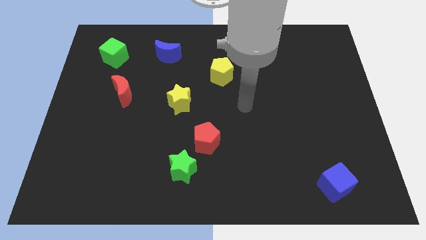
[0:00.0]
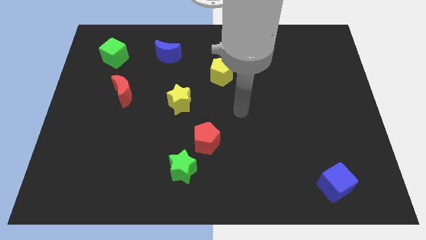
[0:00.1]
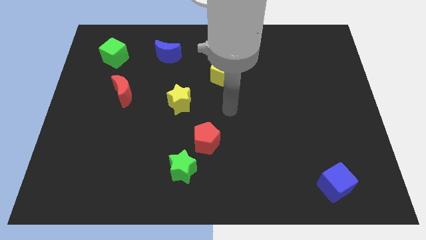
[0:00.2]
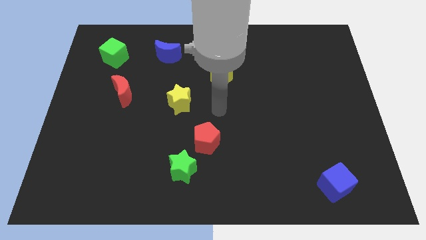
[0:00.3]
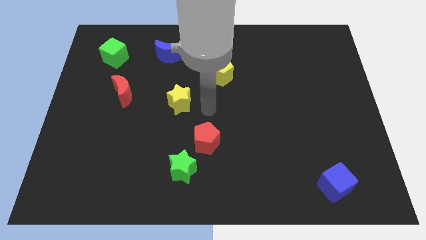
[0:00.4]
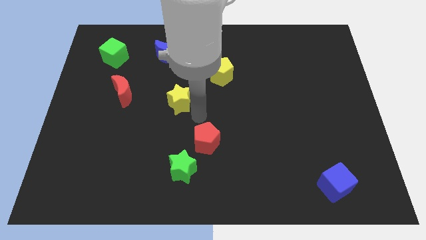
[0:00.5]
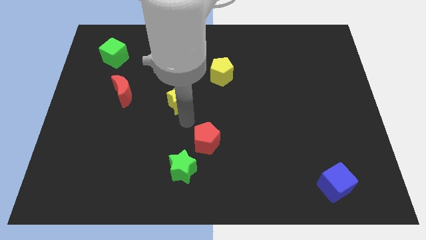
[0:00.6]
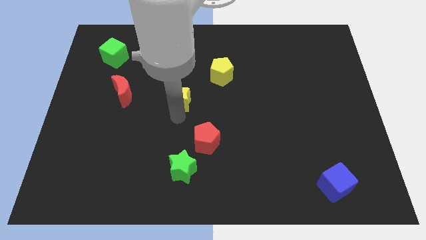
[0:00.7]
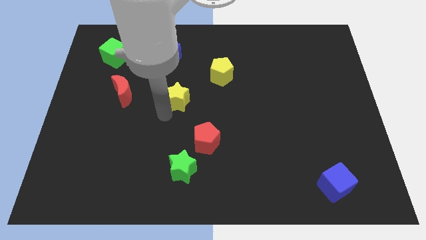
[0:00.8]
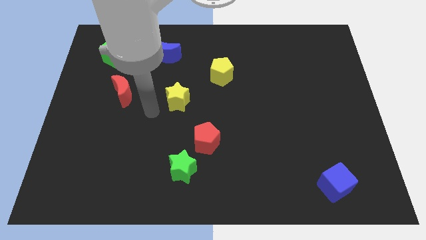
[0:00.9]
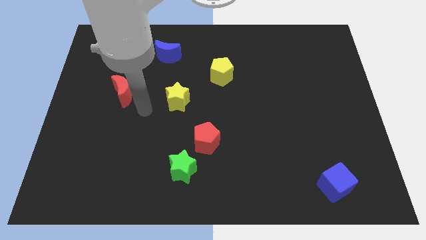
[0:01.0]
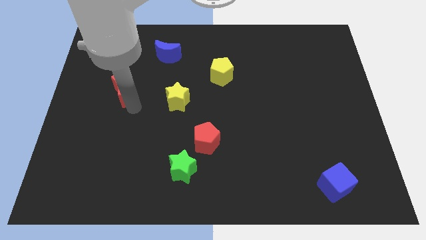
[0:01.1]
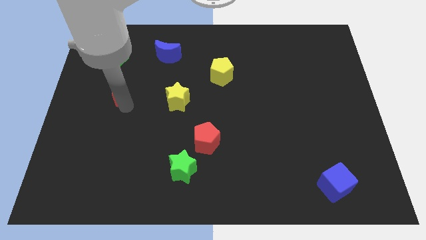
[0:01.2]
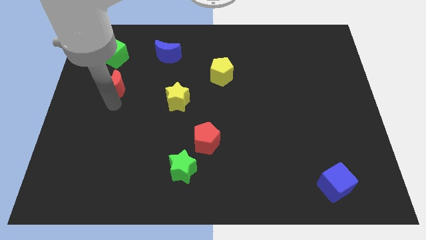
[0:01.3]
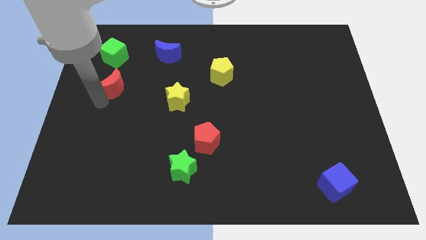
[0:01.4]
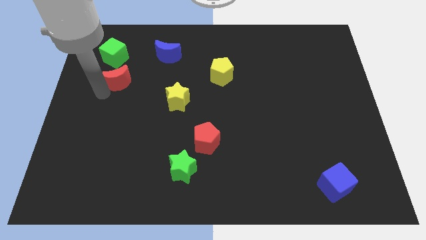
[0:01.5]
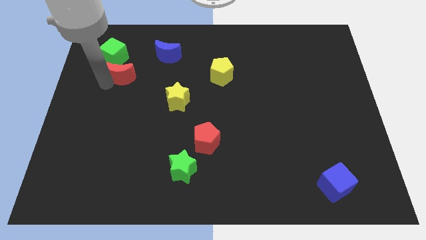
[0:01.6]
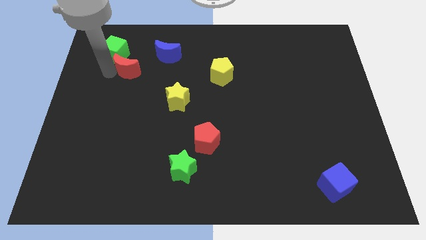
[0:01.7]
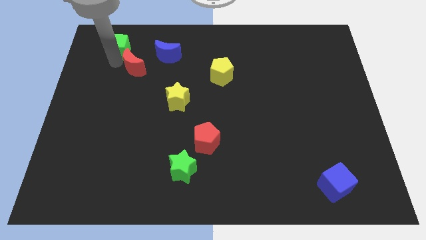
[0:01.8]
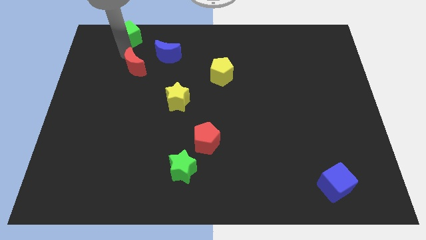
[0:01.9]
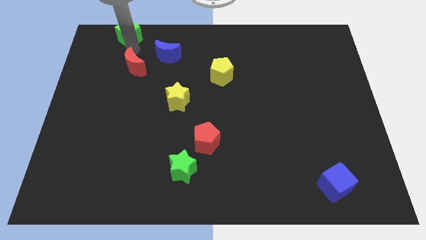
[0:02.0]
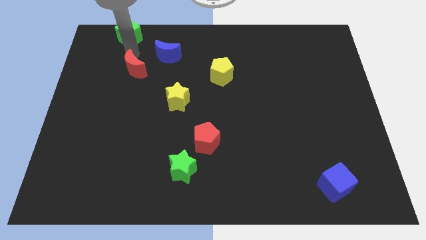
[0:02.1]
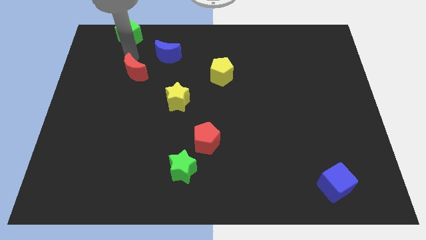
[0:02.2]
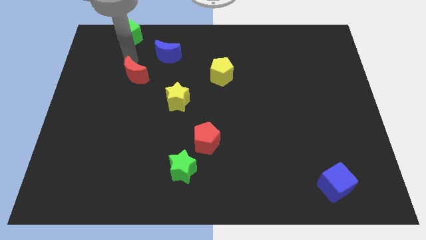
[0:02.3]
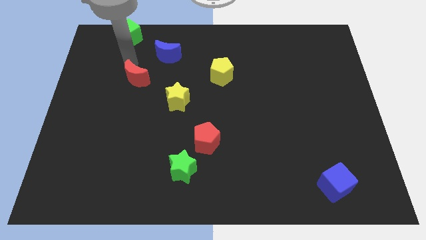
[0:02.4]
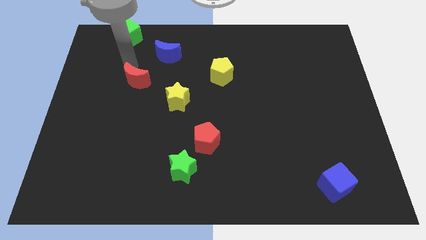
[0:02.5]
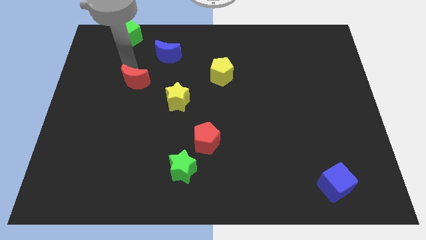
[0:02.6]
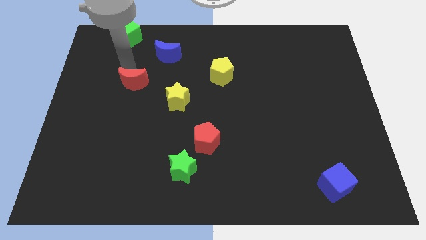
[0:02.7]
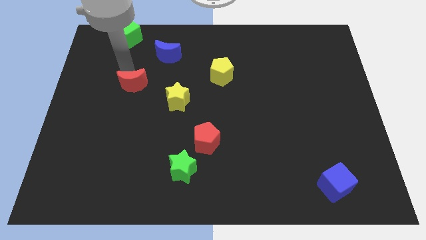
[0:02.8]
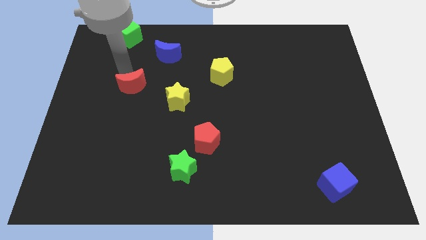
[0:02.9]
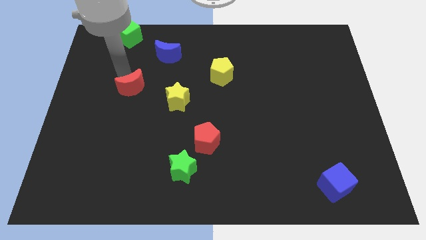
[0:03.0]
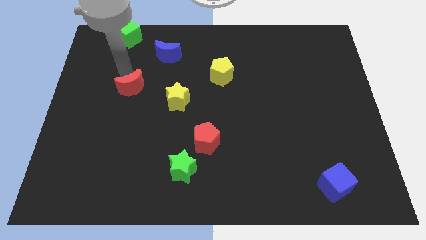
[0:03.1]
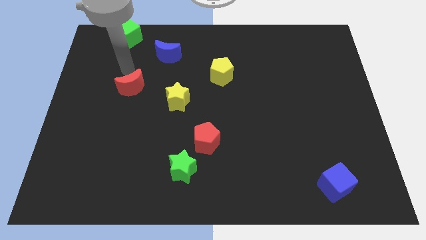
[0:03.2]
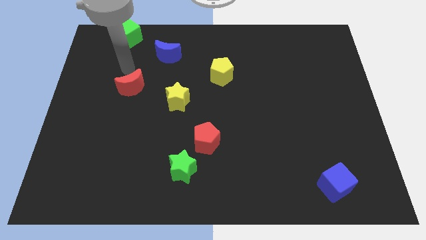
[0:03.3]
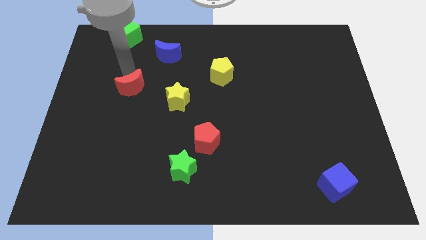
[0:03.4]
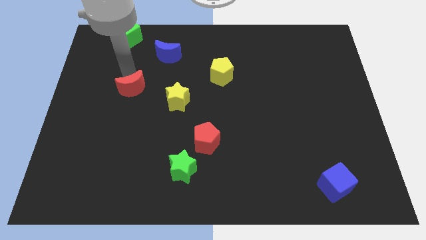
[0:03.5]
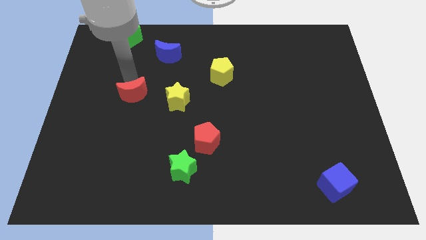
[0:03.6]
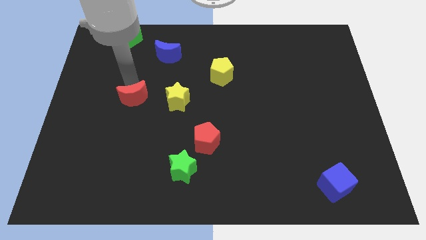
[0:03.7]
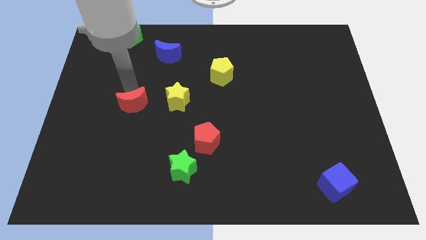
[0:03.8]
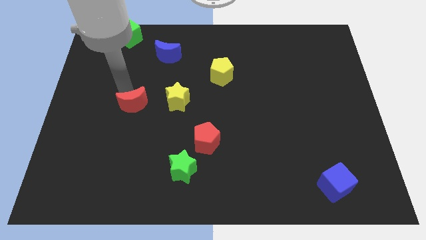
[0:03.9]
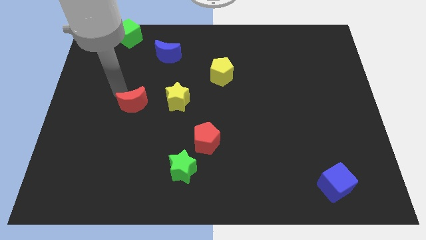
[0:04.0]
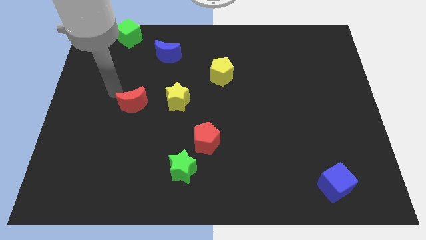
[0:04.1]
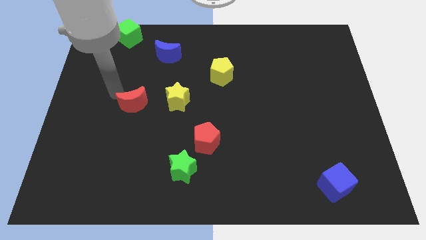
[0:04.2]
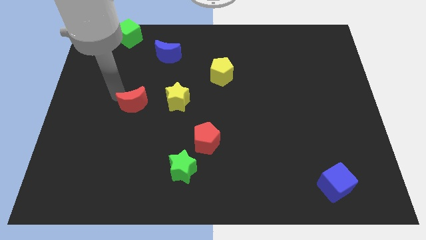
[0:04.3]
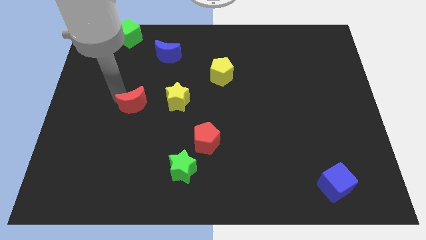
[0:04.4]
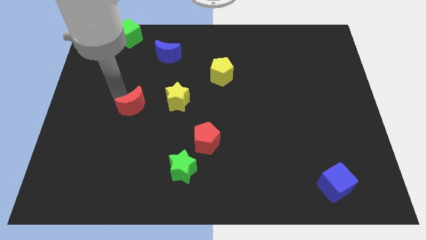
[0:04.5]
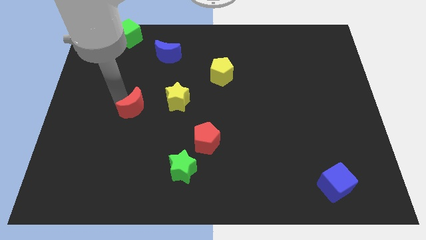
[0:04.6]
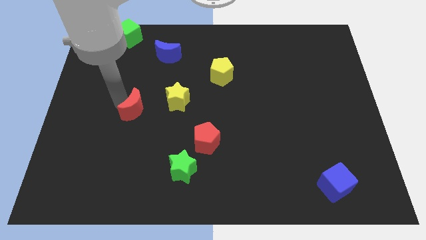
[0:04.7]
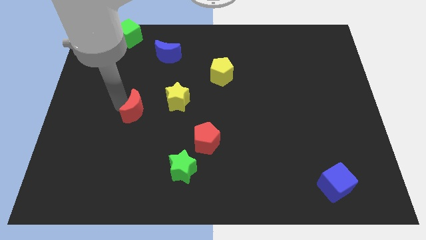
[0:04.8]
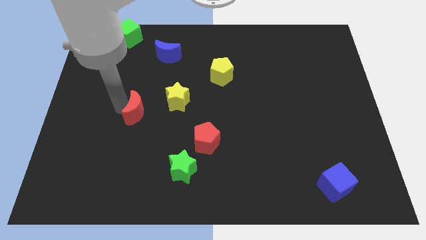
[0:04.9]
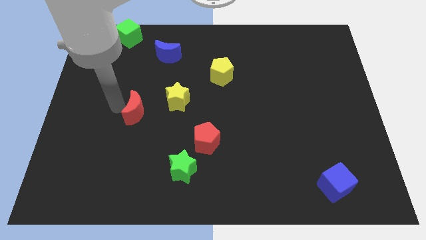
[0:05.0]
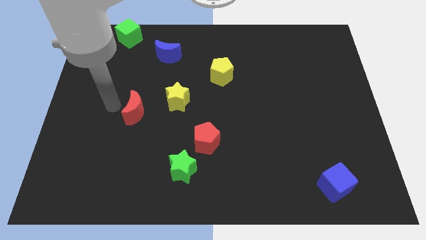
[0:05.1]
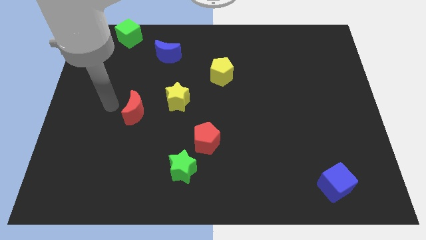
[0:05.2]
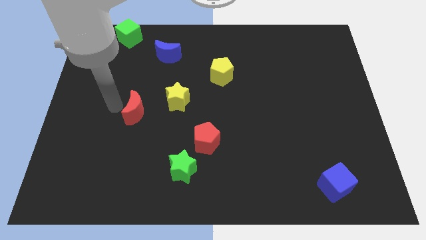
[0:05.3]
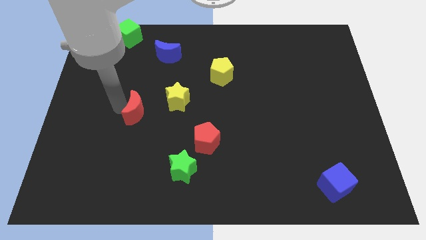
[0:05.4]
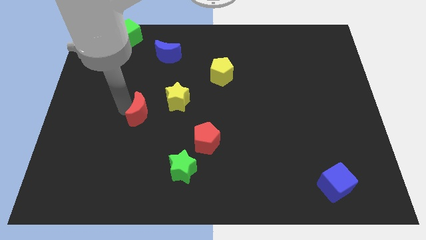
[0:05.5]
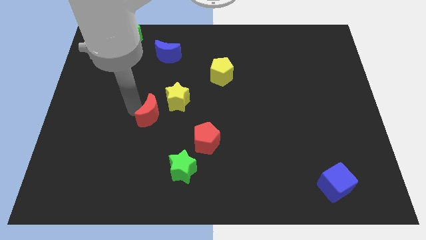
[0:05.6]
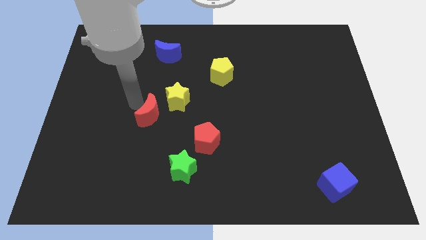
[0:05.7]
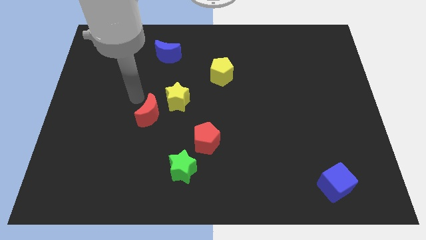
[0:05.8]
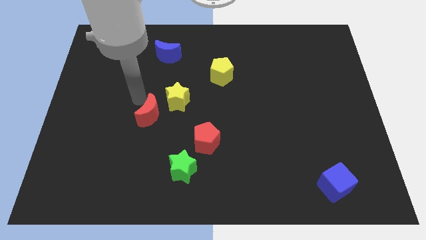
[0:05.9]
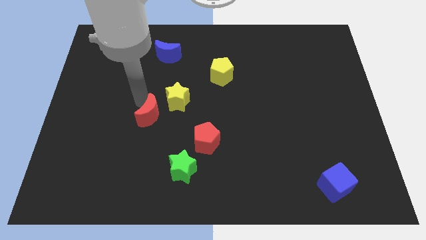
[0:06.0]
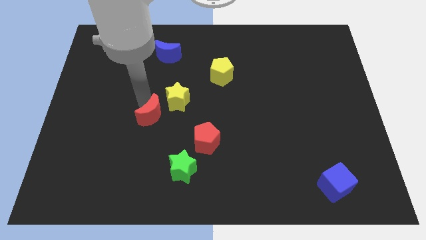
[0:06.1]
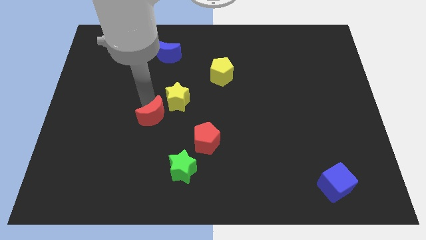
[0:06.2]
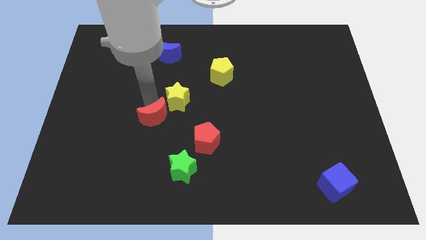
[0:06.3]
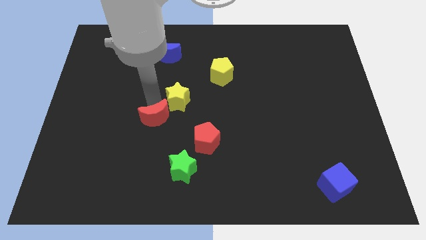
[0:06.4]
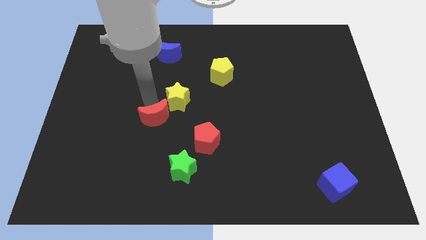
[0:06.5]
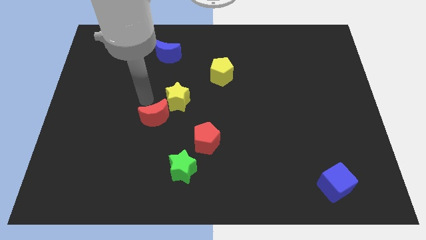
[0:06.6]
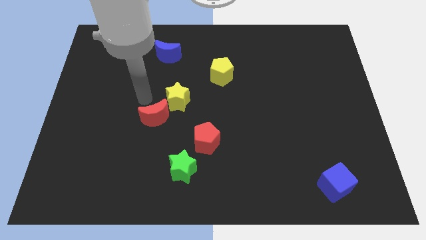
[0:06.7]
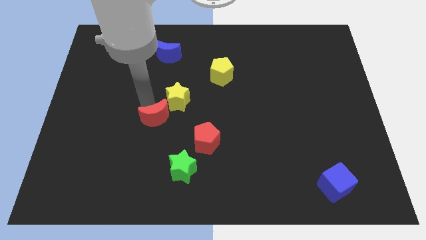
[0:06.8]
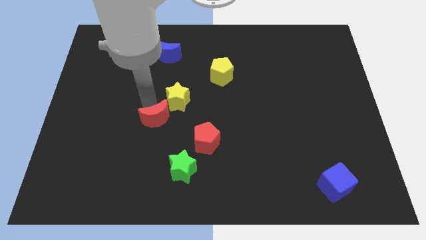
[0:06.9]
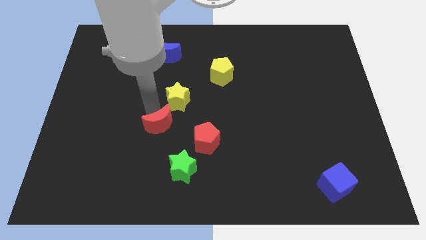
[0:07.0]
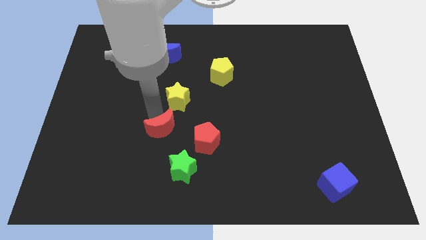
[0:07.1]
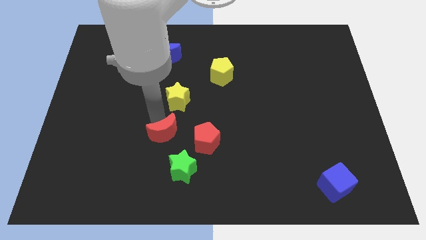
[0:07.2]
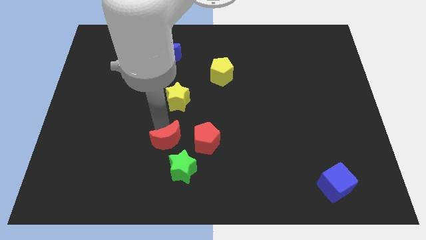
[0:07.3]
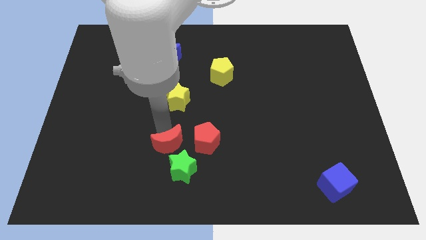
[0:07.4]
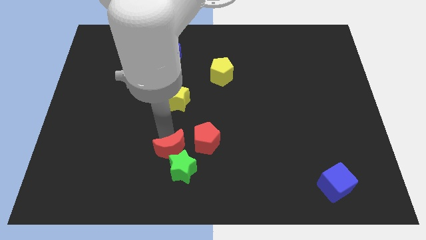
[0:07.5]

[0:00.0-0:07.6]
move the red moon close to the green star
